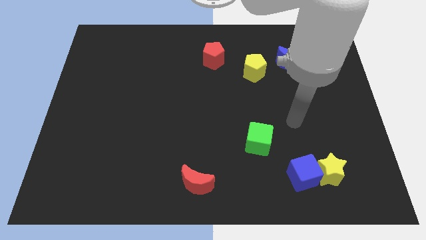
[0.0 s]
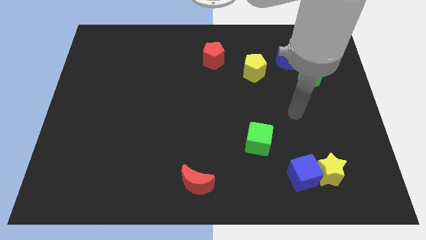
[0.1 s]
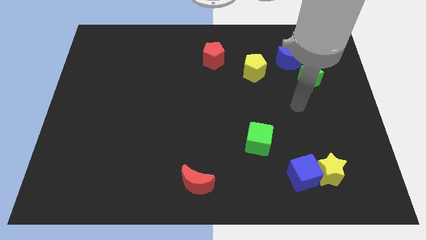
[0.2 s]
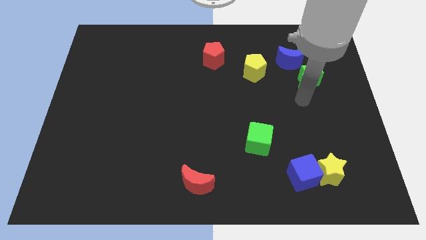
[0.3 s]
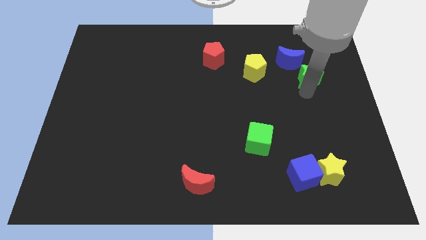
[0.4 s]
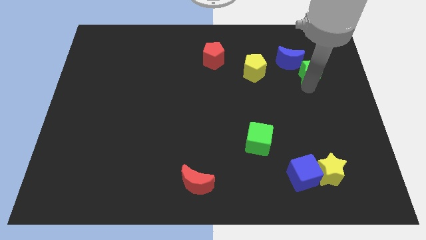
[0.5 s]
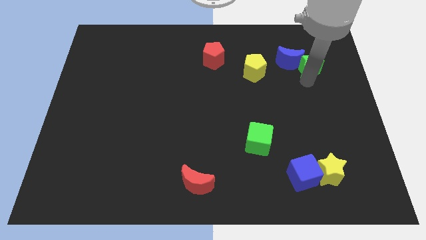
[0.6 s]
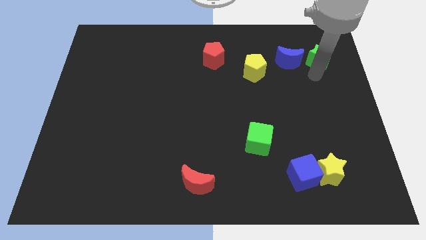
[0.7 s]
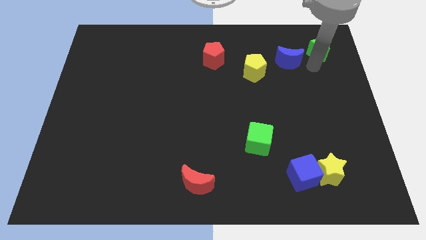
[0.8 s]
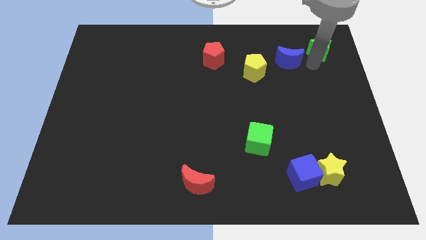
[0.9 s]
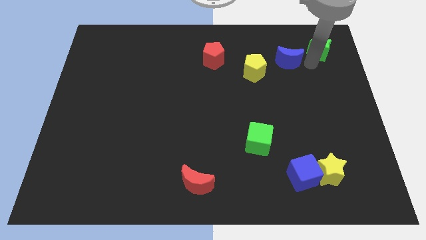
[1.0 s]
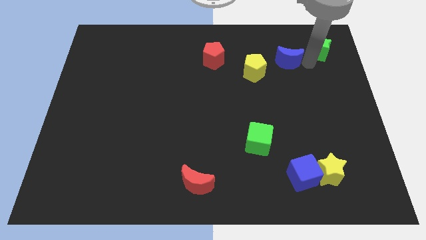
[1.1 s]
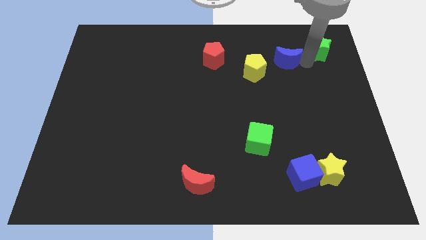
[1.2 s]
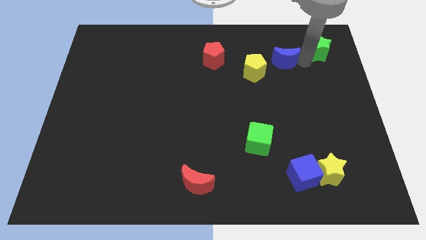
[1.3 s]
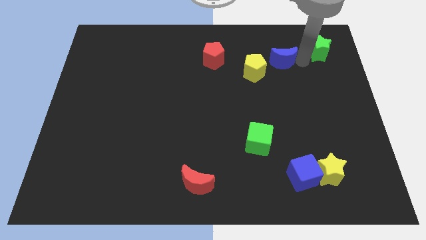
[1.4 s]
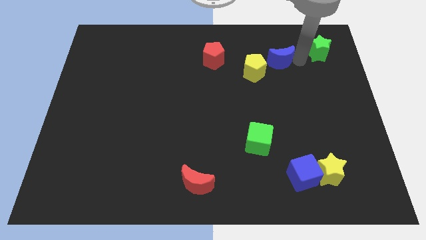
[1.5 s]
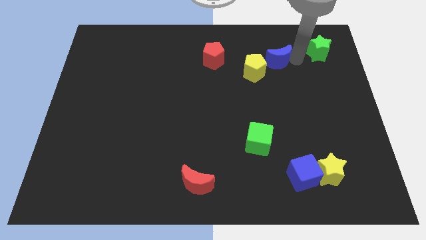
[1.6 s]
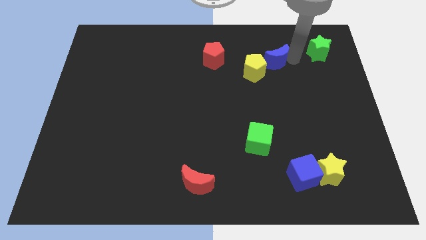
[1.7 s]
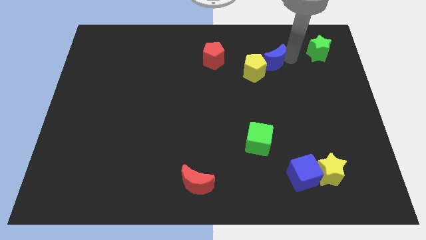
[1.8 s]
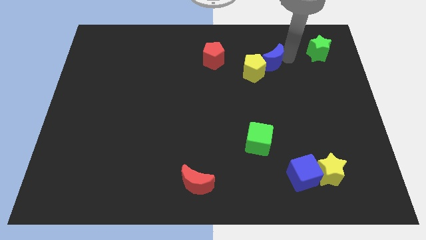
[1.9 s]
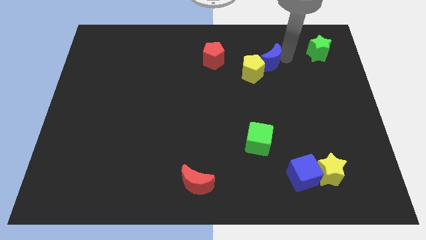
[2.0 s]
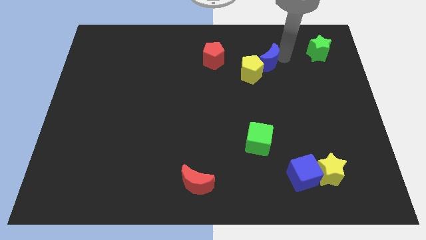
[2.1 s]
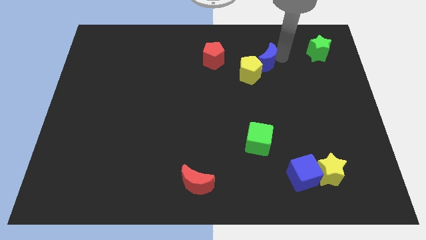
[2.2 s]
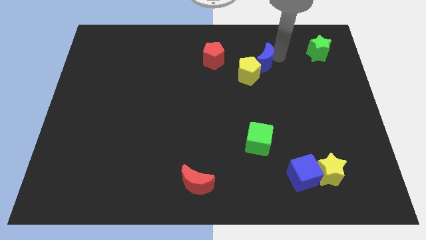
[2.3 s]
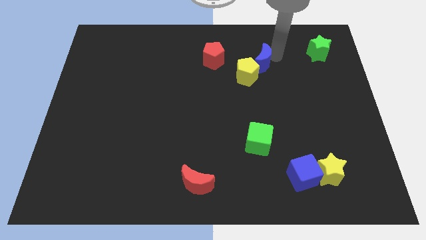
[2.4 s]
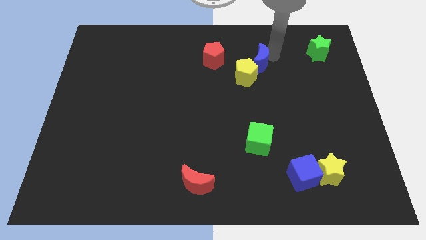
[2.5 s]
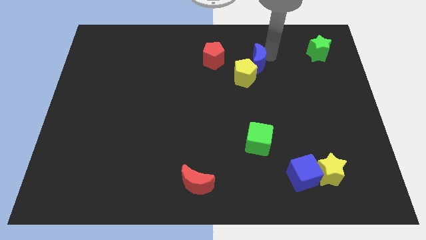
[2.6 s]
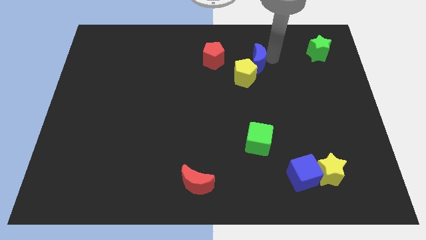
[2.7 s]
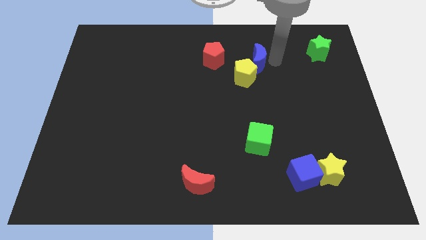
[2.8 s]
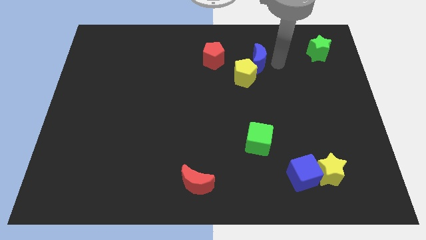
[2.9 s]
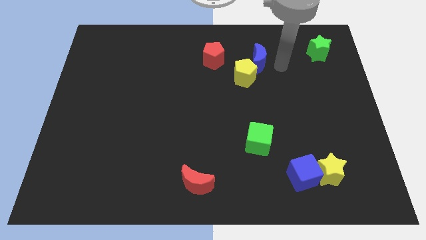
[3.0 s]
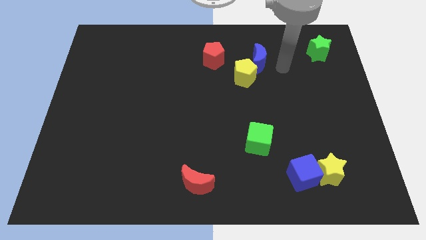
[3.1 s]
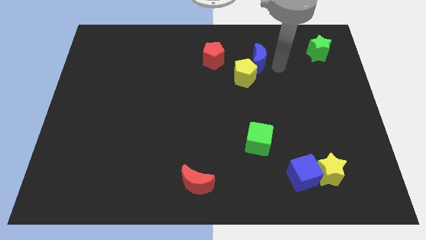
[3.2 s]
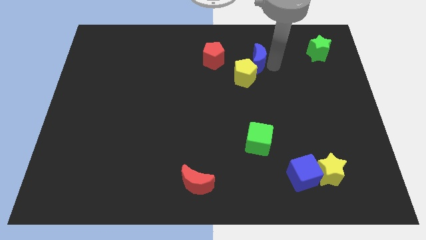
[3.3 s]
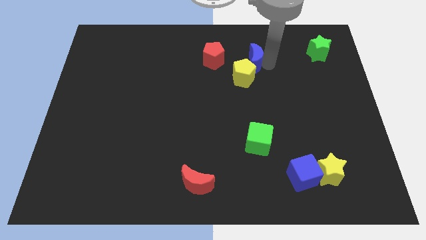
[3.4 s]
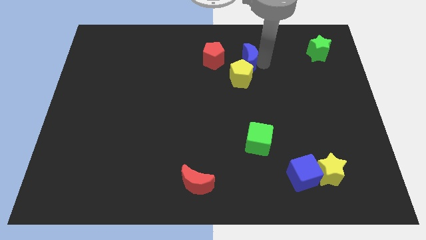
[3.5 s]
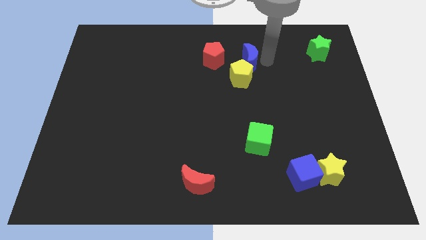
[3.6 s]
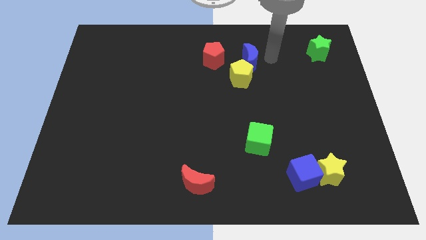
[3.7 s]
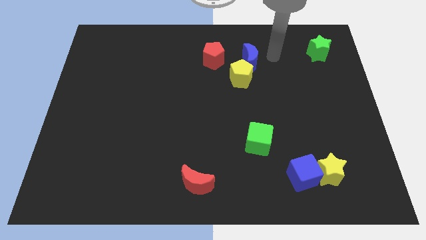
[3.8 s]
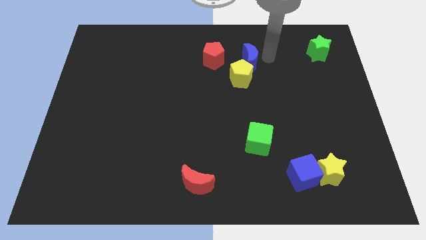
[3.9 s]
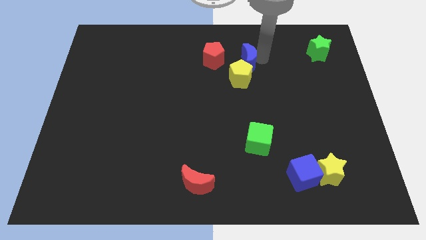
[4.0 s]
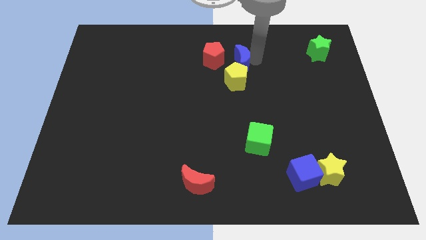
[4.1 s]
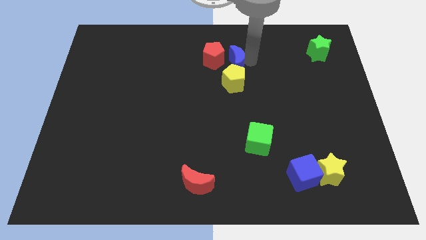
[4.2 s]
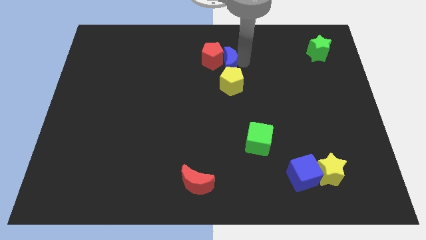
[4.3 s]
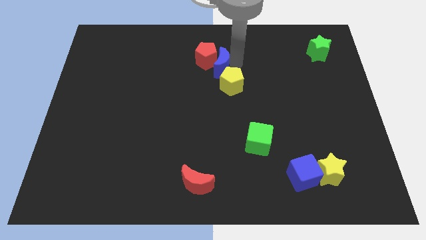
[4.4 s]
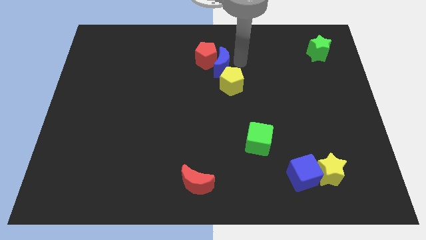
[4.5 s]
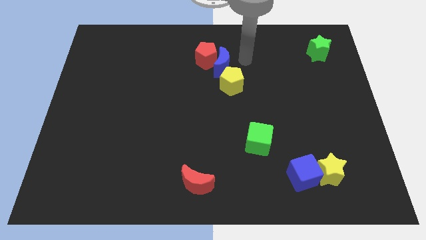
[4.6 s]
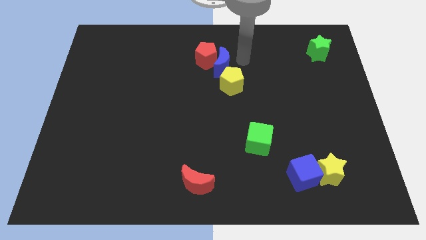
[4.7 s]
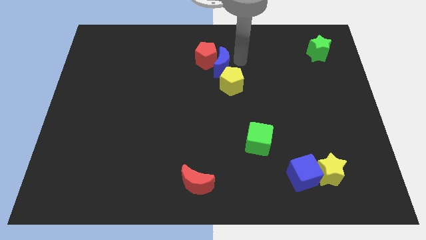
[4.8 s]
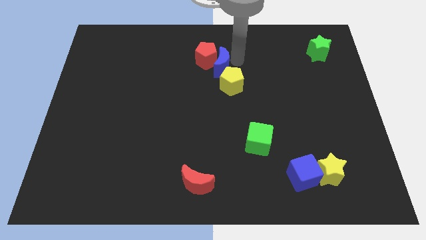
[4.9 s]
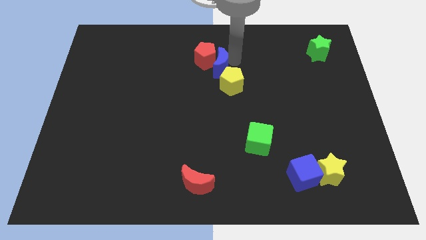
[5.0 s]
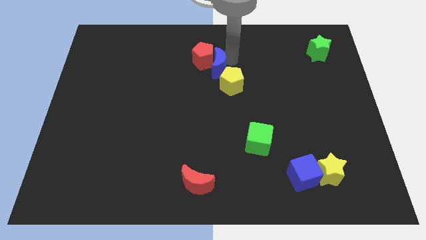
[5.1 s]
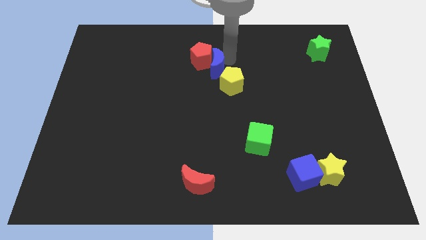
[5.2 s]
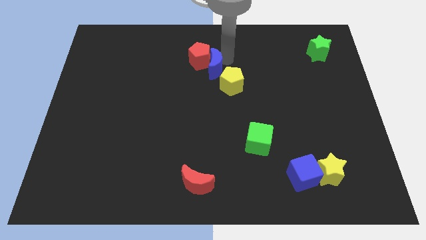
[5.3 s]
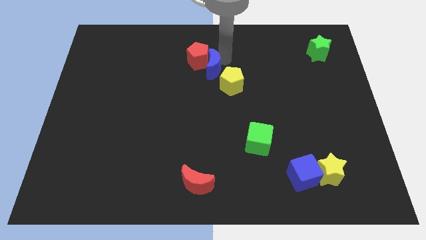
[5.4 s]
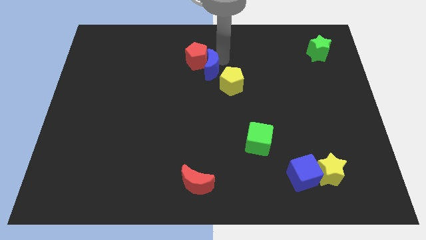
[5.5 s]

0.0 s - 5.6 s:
push the blue moon to the left

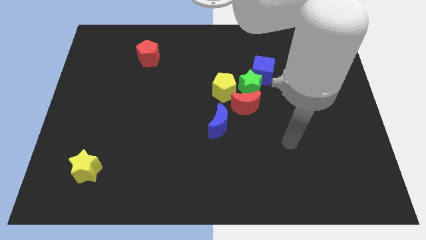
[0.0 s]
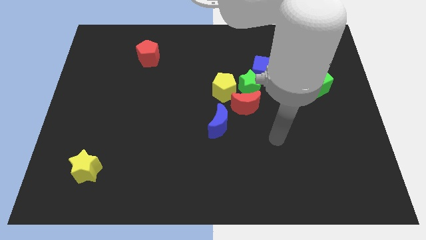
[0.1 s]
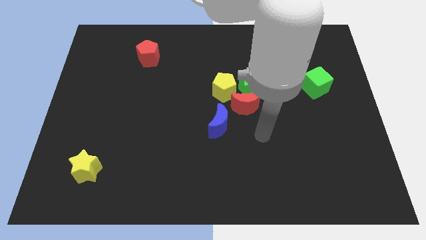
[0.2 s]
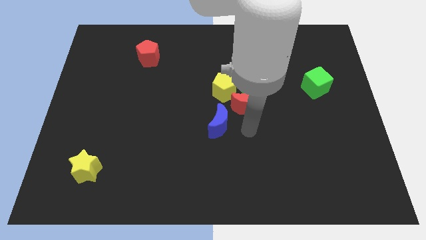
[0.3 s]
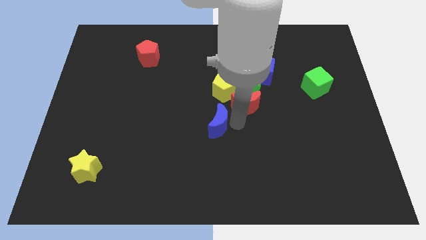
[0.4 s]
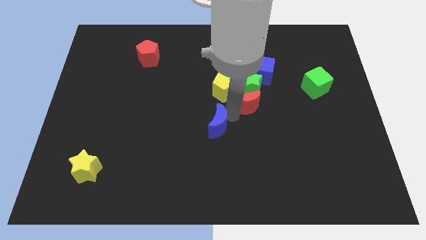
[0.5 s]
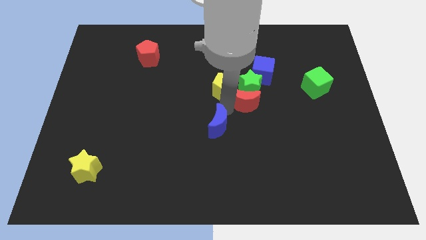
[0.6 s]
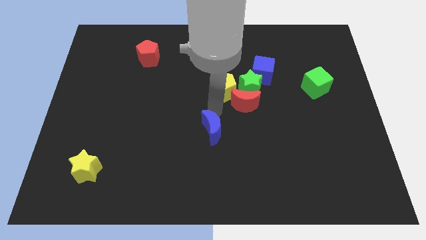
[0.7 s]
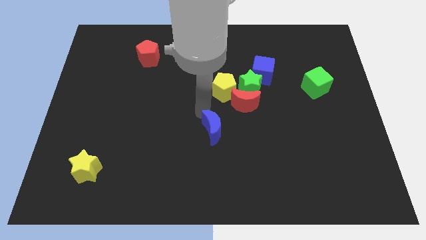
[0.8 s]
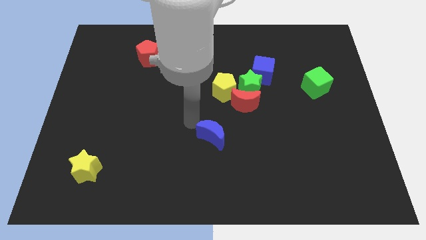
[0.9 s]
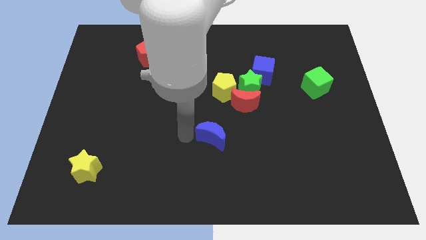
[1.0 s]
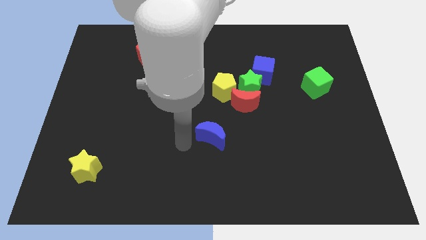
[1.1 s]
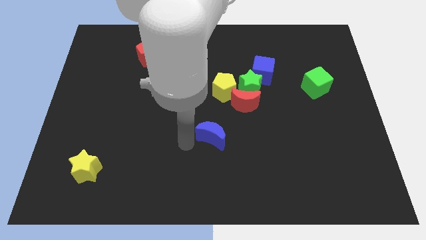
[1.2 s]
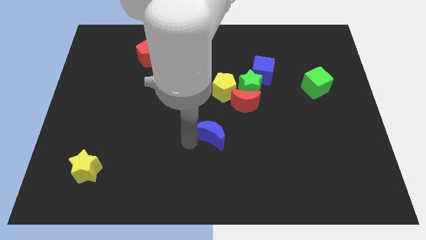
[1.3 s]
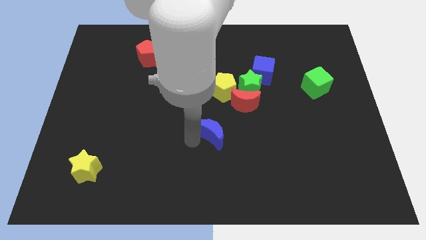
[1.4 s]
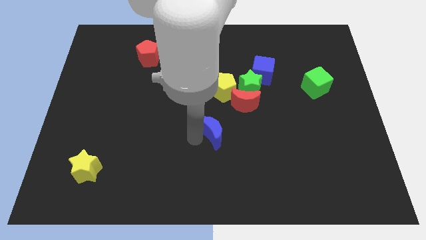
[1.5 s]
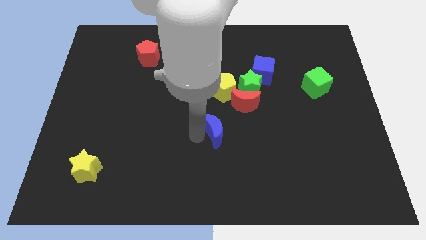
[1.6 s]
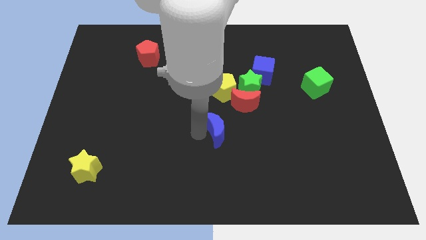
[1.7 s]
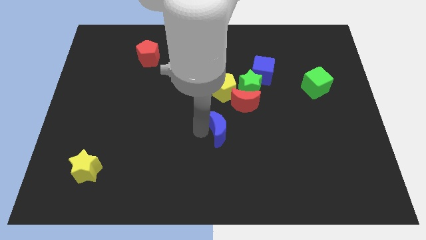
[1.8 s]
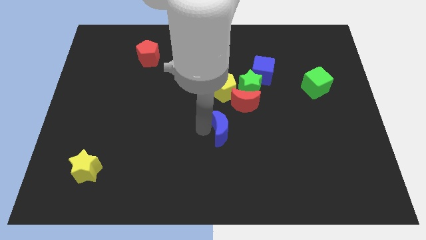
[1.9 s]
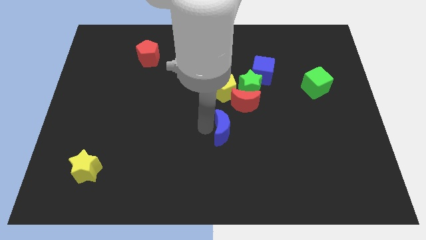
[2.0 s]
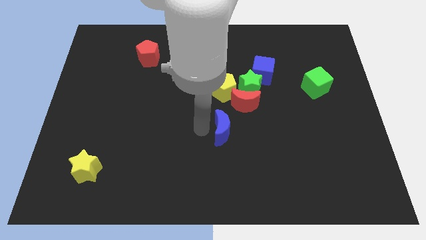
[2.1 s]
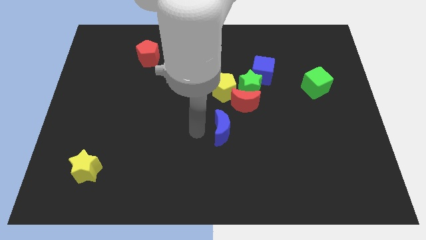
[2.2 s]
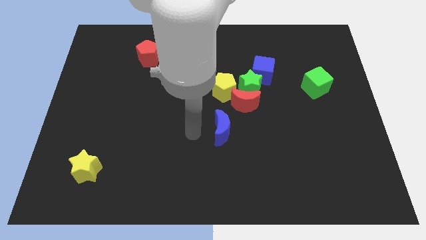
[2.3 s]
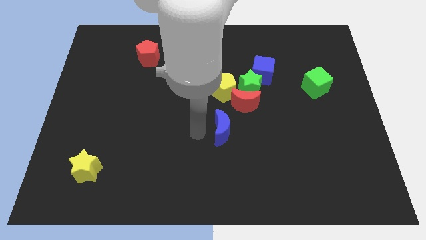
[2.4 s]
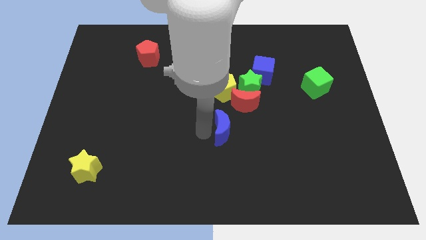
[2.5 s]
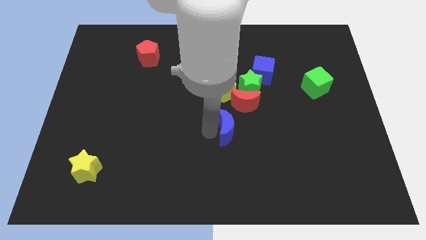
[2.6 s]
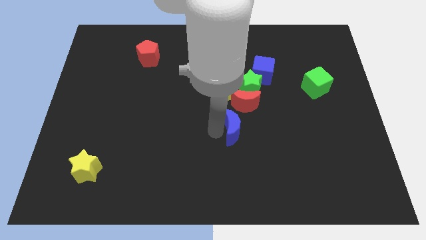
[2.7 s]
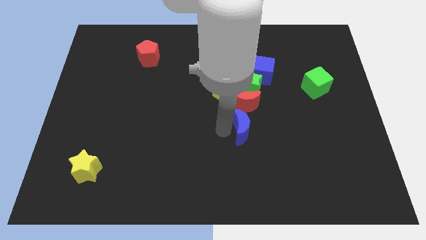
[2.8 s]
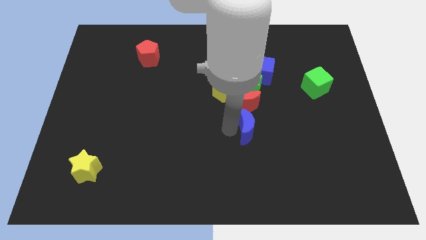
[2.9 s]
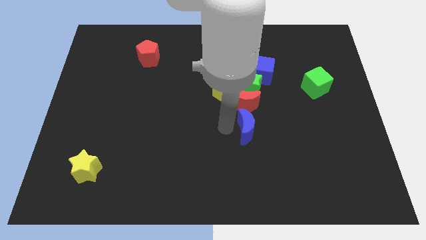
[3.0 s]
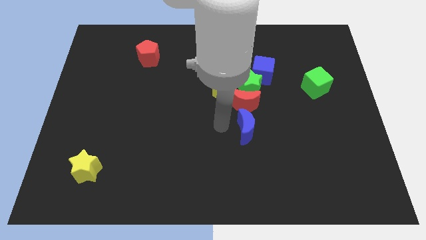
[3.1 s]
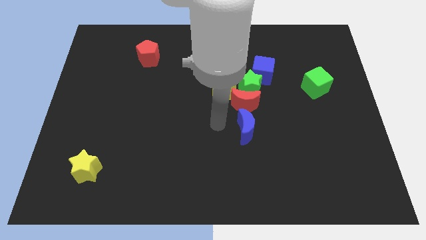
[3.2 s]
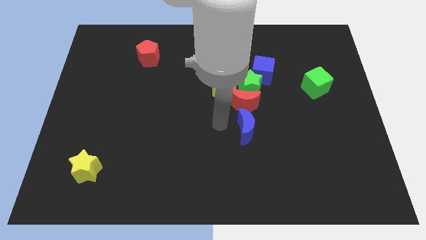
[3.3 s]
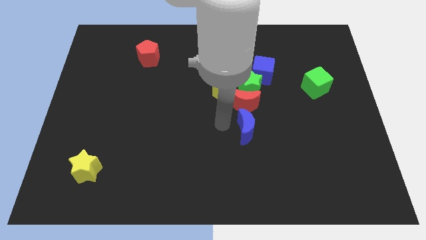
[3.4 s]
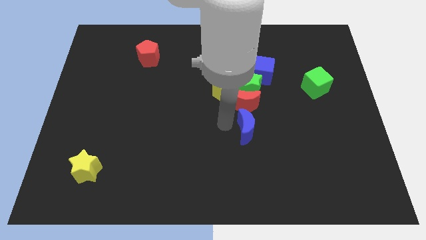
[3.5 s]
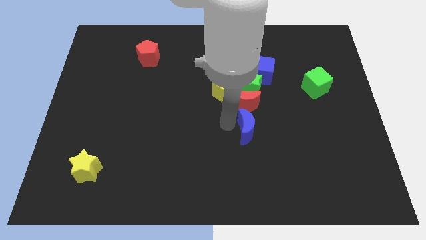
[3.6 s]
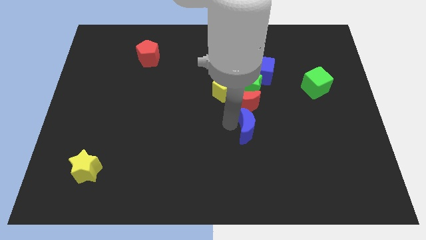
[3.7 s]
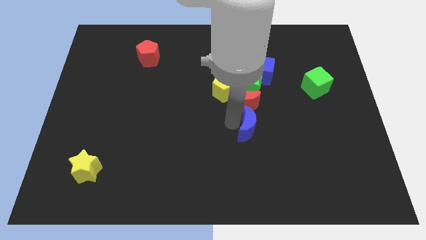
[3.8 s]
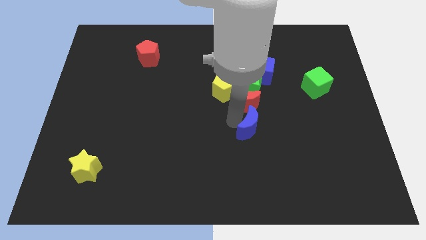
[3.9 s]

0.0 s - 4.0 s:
move the blue moon right a little bit
